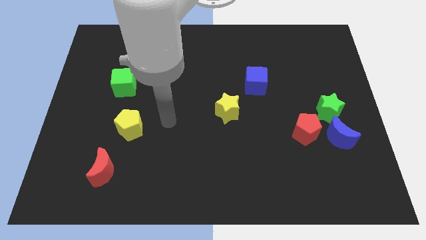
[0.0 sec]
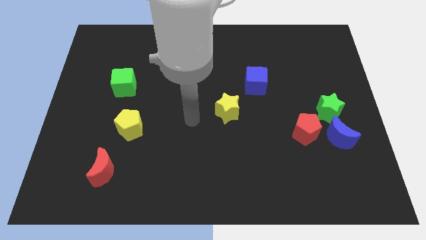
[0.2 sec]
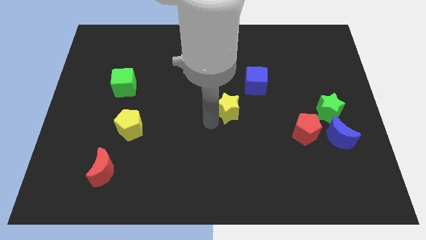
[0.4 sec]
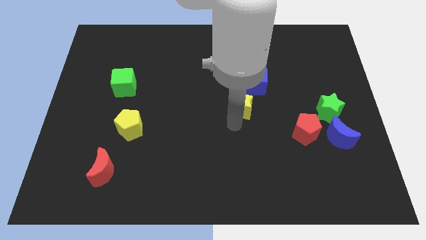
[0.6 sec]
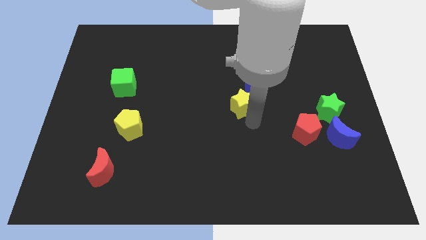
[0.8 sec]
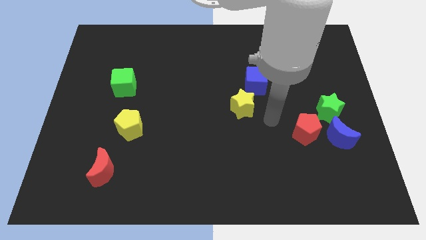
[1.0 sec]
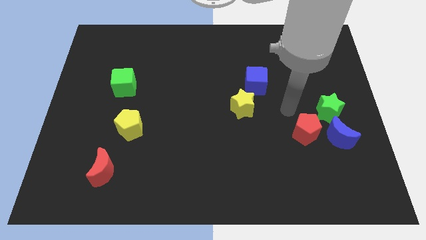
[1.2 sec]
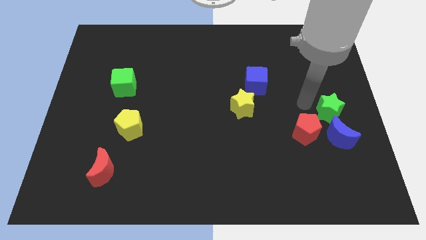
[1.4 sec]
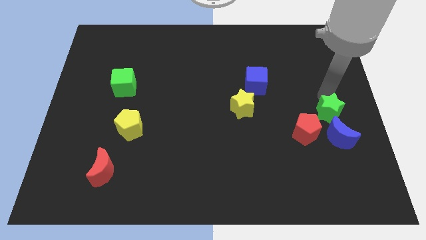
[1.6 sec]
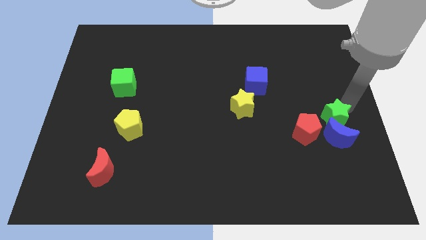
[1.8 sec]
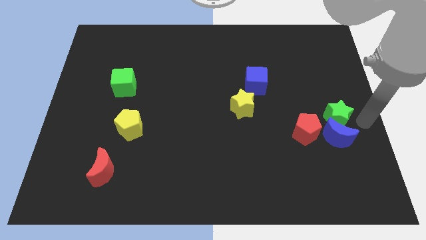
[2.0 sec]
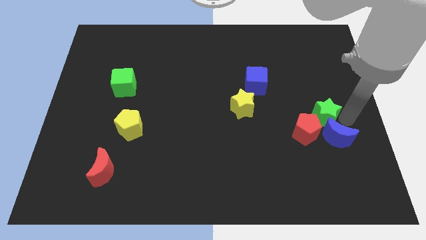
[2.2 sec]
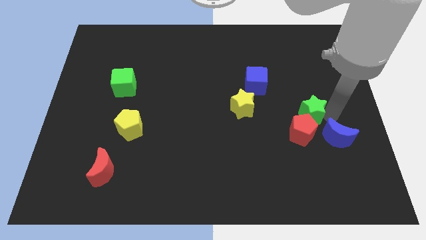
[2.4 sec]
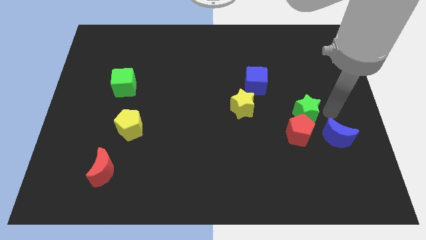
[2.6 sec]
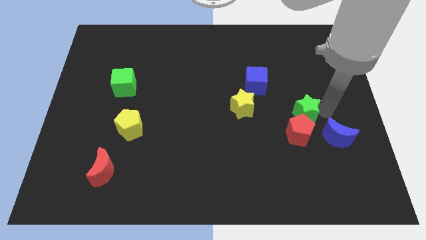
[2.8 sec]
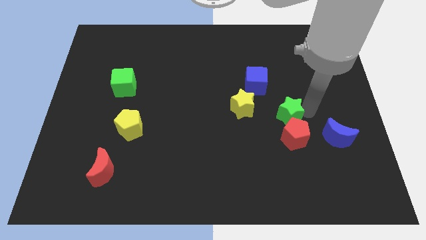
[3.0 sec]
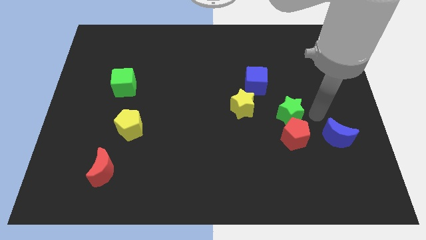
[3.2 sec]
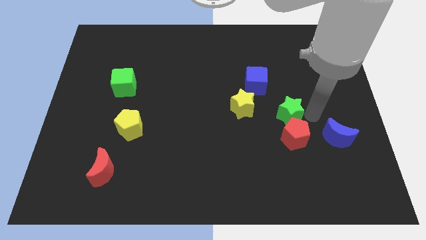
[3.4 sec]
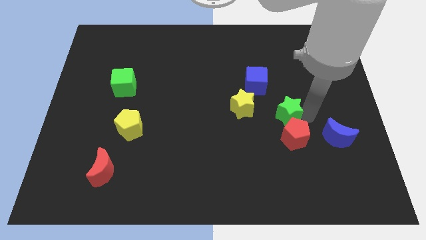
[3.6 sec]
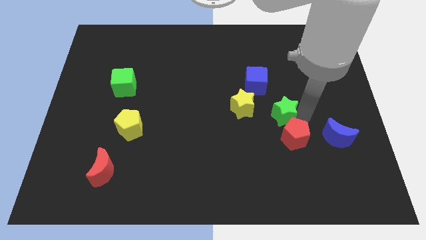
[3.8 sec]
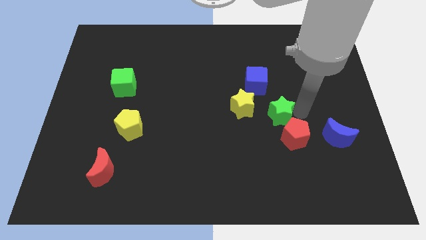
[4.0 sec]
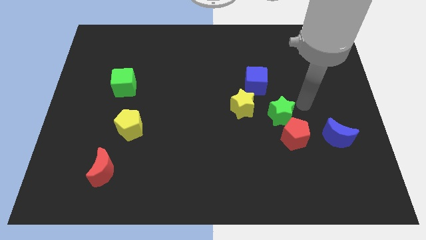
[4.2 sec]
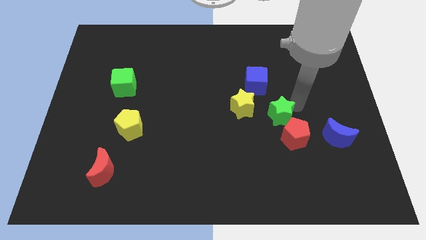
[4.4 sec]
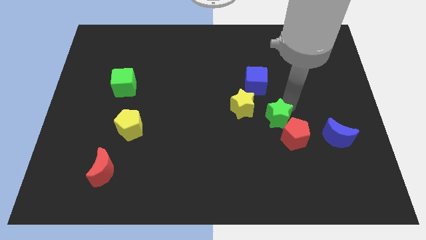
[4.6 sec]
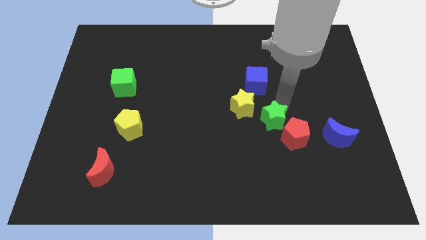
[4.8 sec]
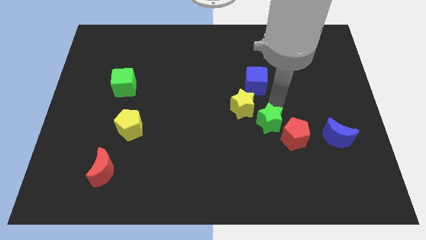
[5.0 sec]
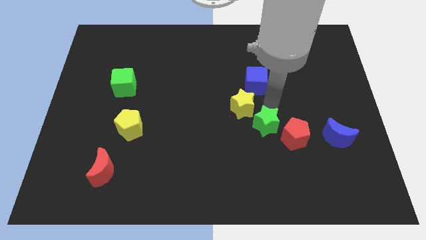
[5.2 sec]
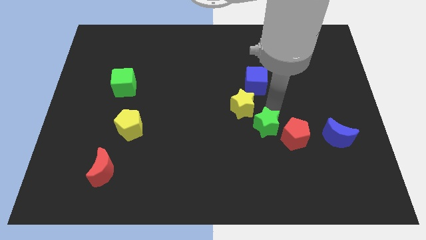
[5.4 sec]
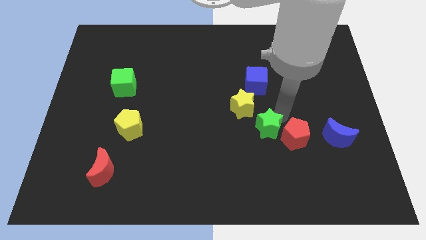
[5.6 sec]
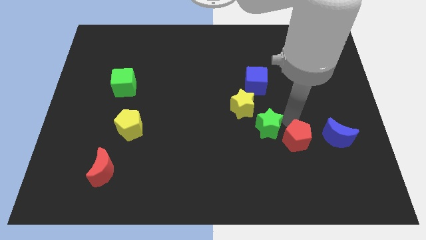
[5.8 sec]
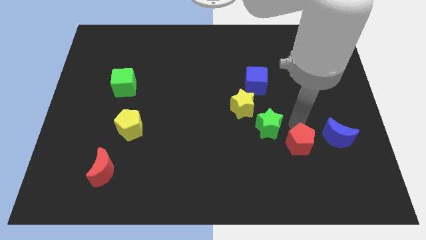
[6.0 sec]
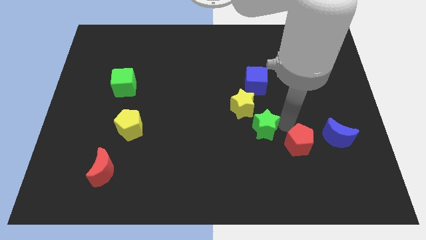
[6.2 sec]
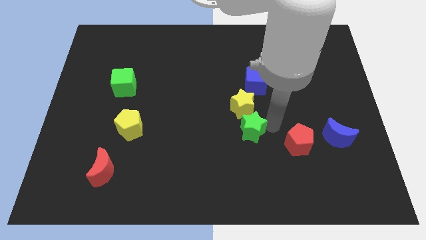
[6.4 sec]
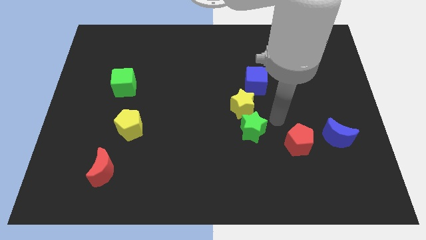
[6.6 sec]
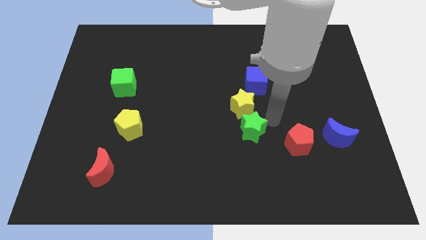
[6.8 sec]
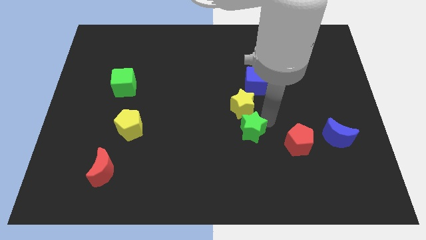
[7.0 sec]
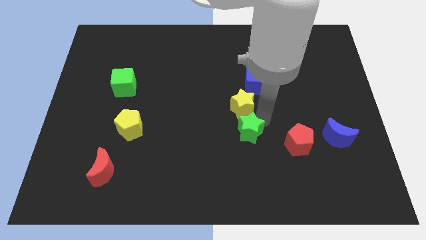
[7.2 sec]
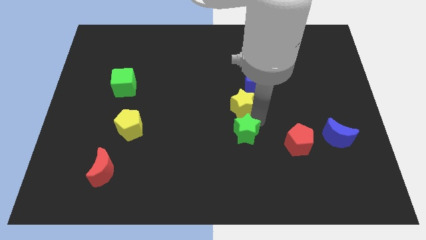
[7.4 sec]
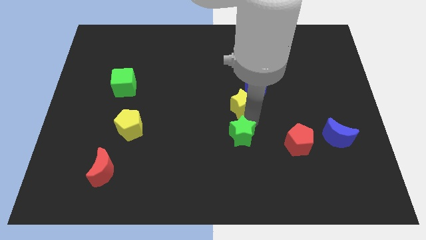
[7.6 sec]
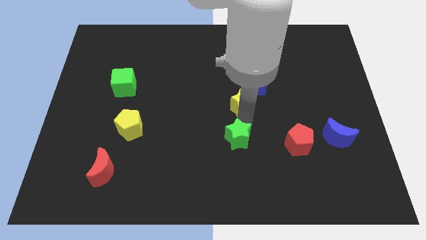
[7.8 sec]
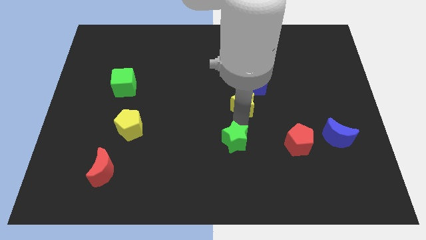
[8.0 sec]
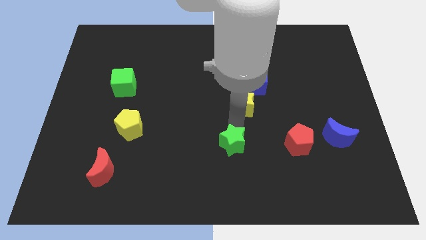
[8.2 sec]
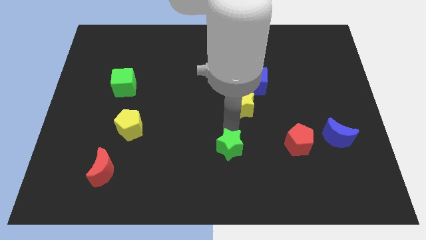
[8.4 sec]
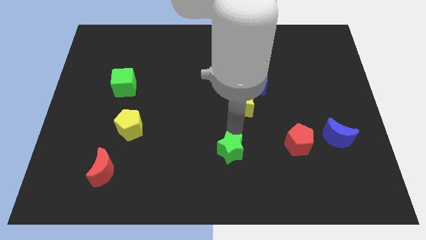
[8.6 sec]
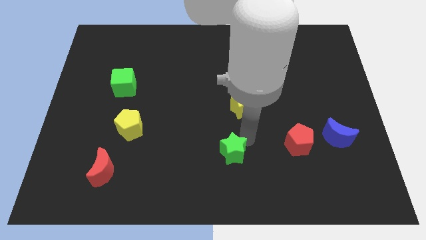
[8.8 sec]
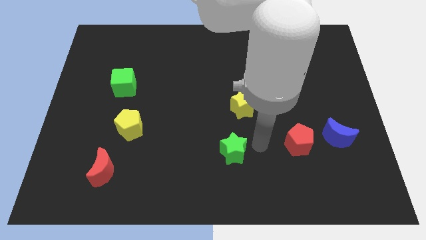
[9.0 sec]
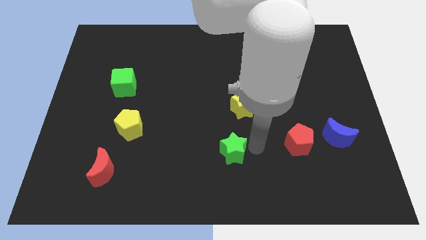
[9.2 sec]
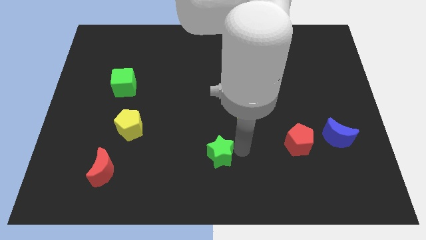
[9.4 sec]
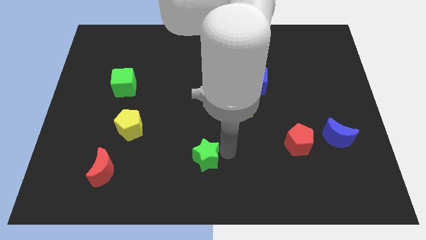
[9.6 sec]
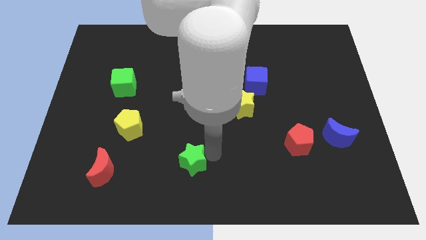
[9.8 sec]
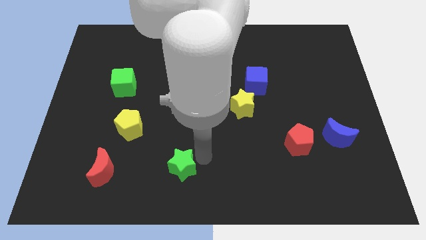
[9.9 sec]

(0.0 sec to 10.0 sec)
slide the green star to the right side of the red moon

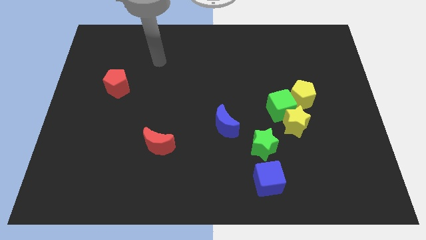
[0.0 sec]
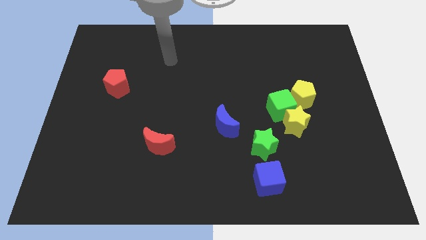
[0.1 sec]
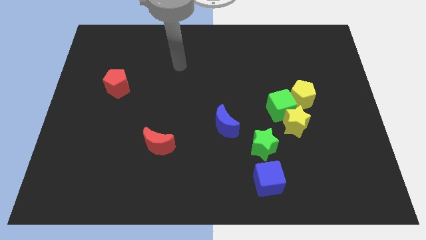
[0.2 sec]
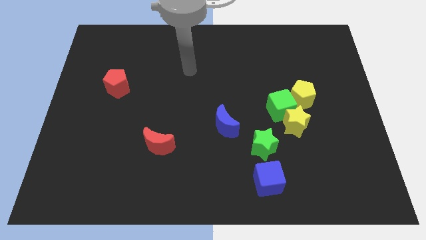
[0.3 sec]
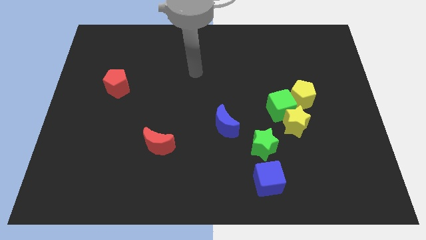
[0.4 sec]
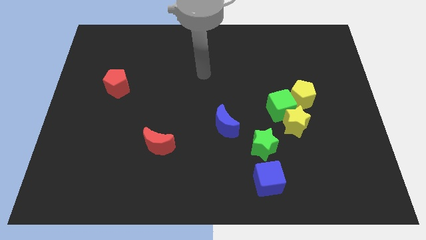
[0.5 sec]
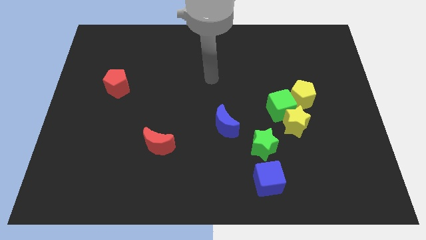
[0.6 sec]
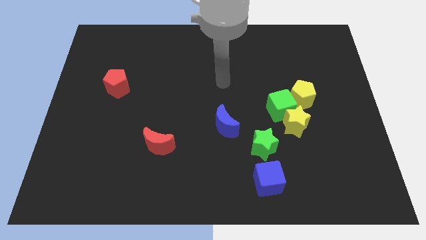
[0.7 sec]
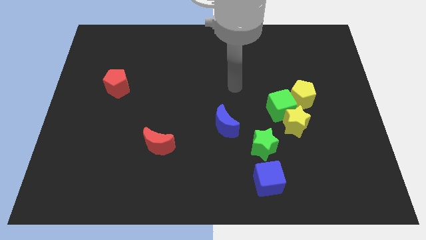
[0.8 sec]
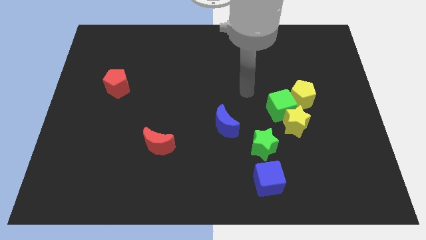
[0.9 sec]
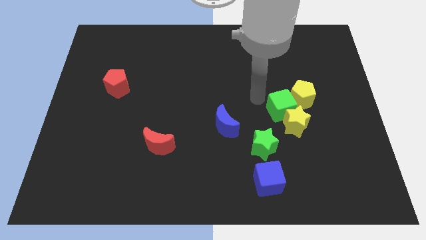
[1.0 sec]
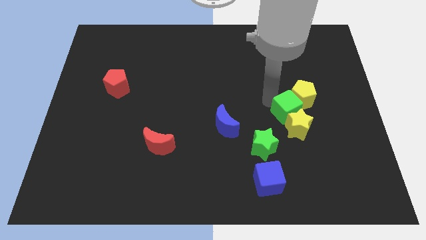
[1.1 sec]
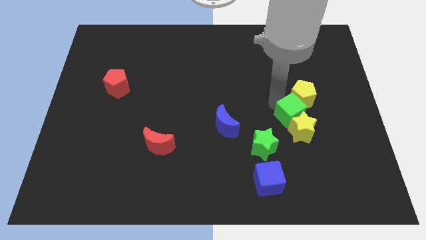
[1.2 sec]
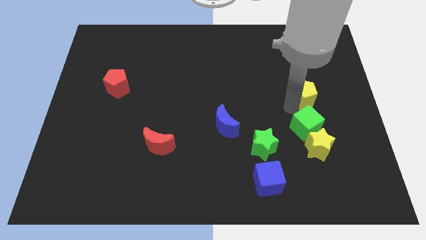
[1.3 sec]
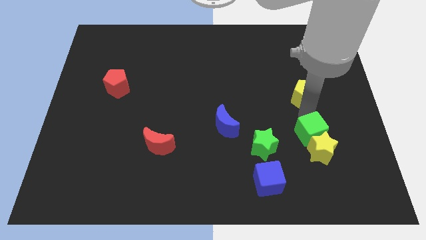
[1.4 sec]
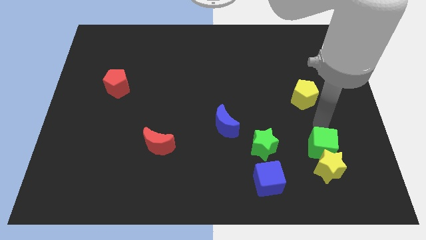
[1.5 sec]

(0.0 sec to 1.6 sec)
put the yellow star to the right of the blue cube
